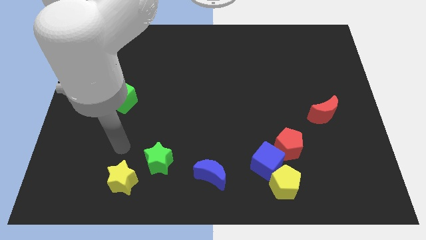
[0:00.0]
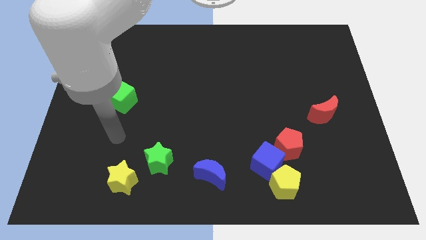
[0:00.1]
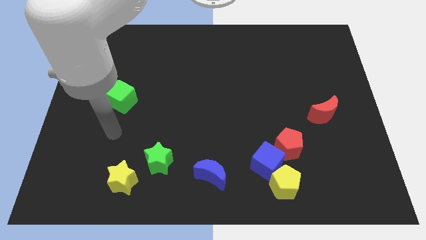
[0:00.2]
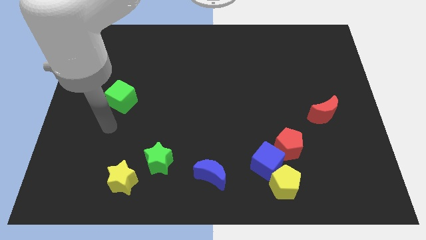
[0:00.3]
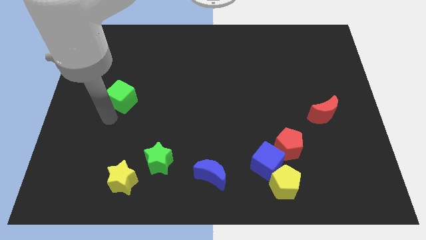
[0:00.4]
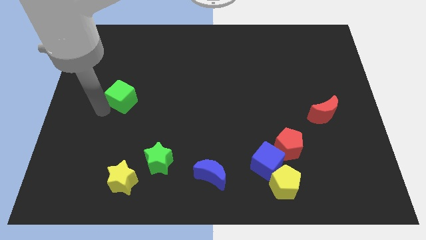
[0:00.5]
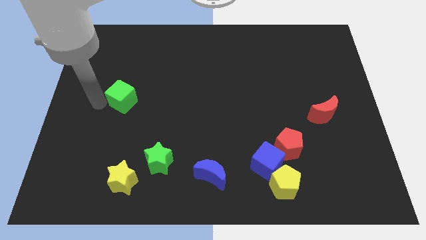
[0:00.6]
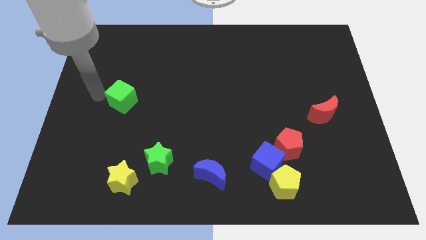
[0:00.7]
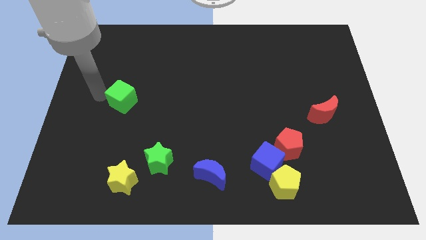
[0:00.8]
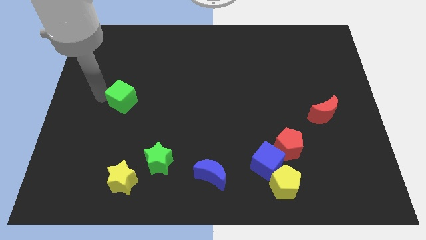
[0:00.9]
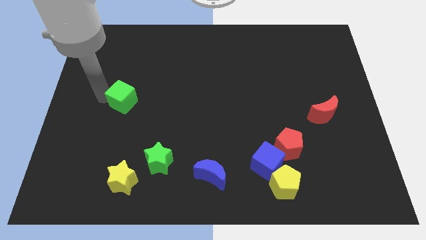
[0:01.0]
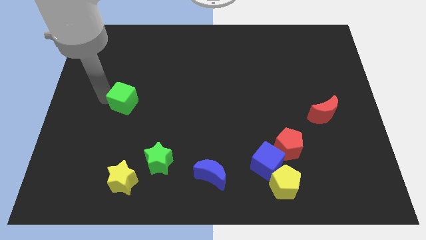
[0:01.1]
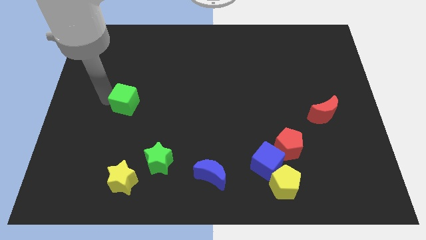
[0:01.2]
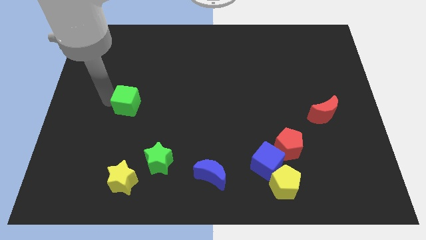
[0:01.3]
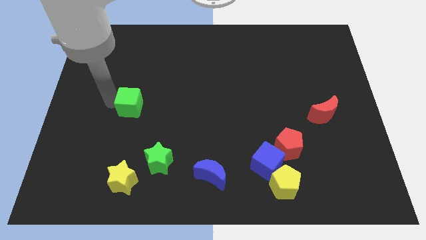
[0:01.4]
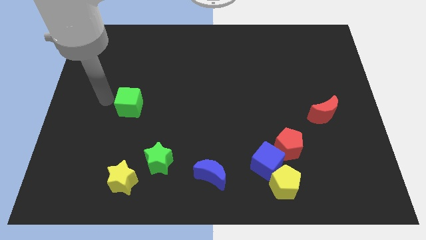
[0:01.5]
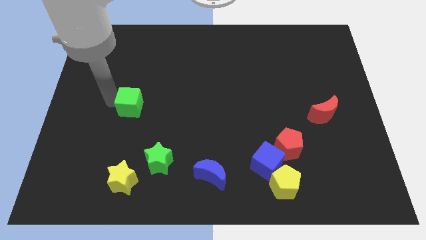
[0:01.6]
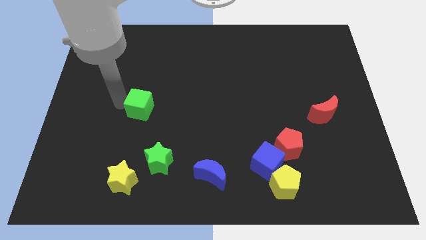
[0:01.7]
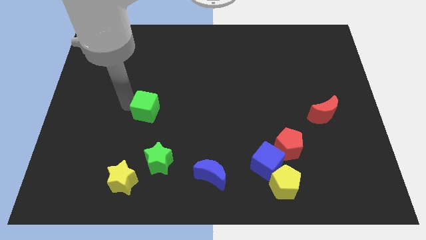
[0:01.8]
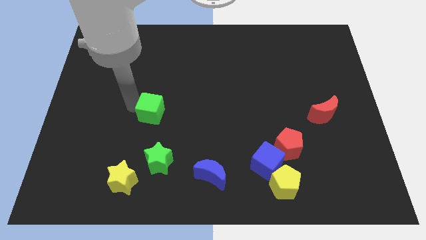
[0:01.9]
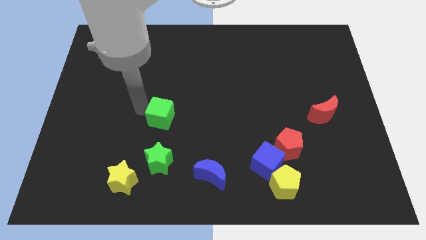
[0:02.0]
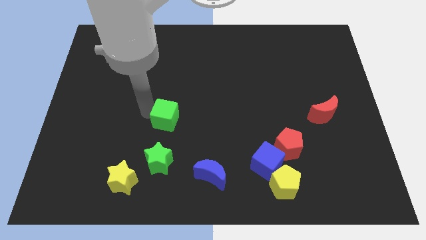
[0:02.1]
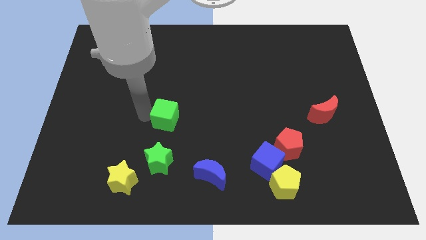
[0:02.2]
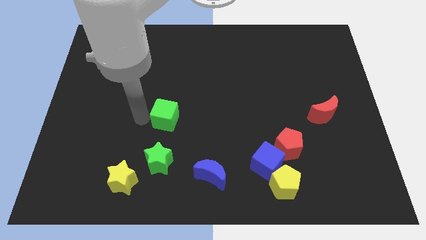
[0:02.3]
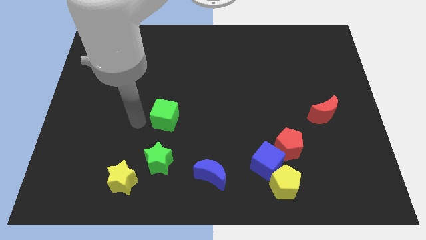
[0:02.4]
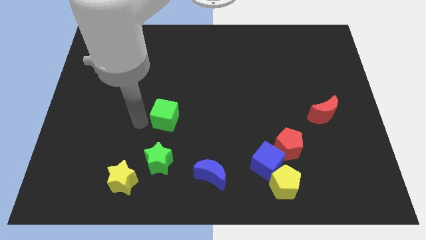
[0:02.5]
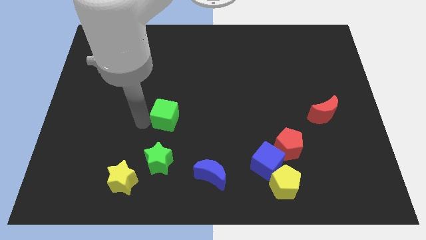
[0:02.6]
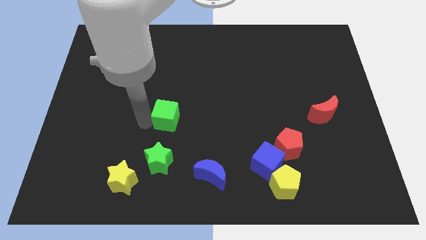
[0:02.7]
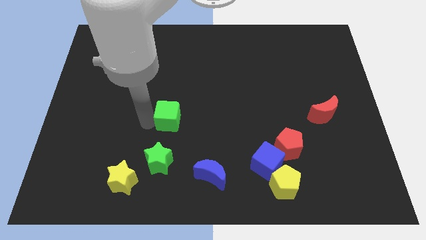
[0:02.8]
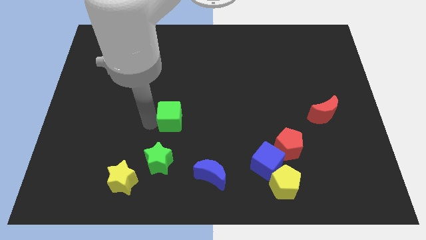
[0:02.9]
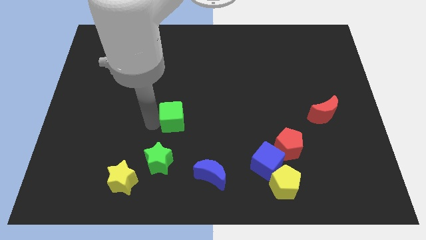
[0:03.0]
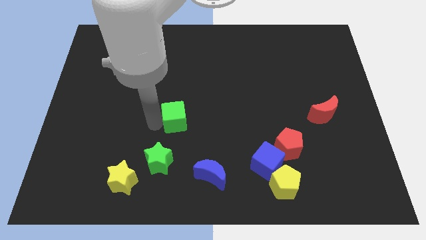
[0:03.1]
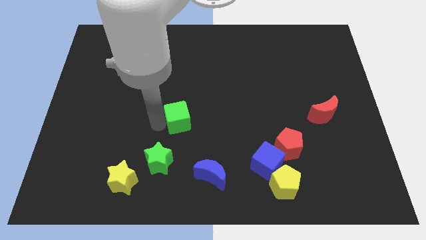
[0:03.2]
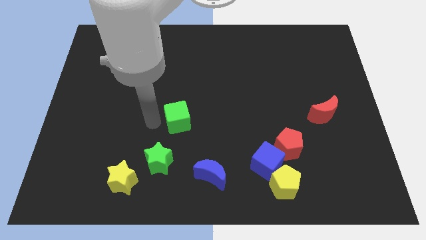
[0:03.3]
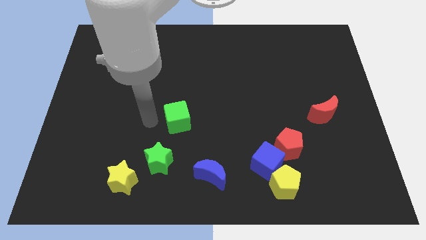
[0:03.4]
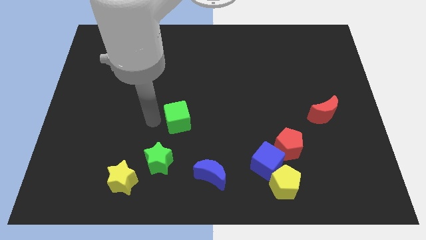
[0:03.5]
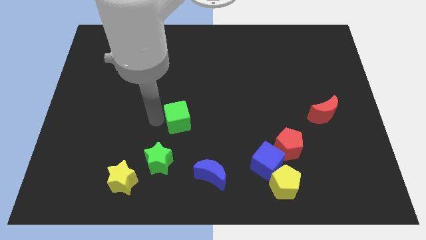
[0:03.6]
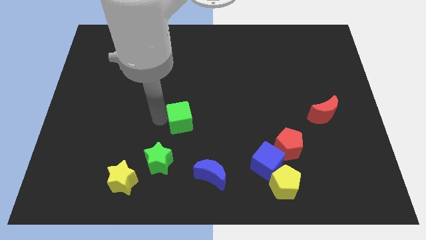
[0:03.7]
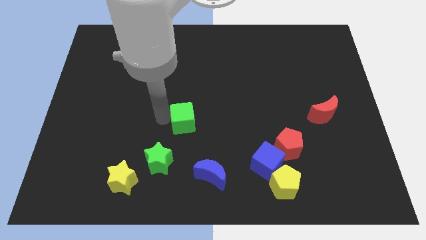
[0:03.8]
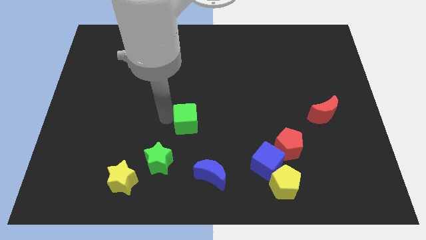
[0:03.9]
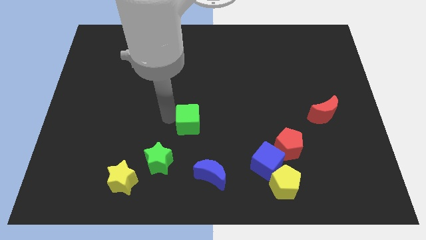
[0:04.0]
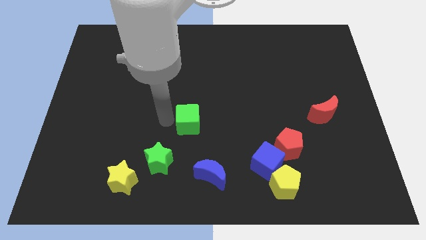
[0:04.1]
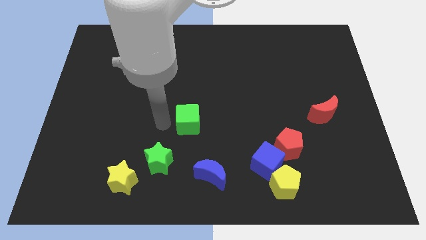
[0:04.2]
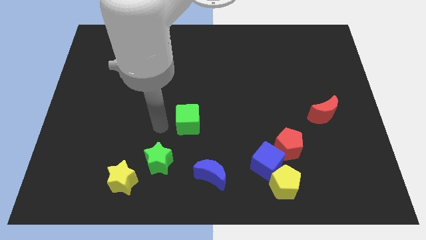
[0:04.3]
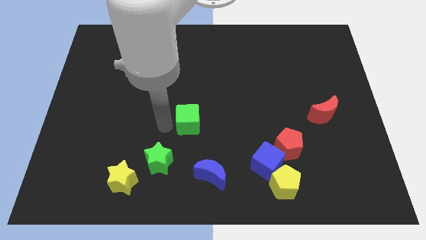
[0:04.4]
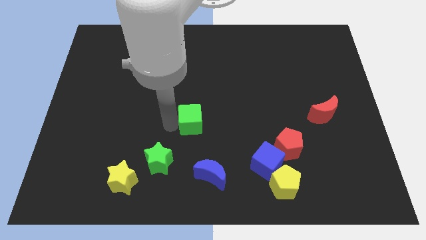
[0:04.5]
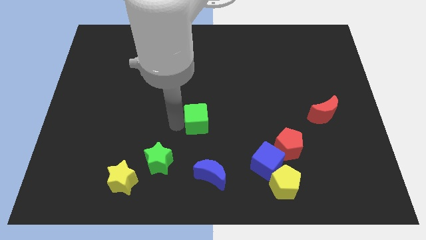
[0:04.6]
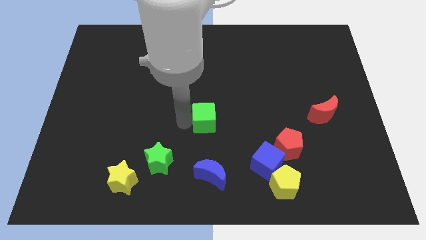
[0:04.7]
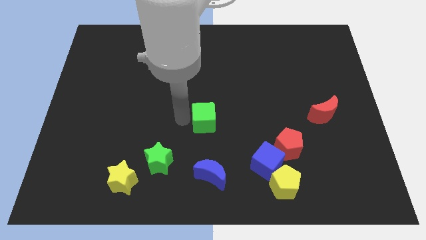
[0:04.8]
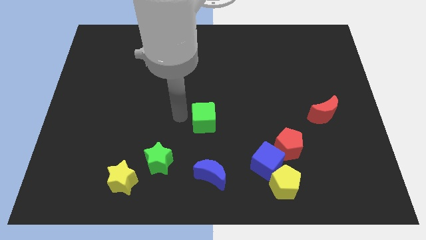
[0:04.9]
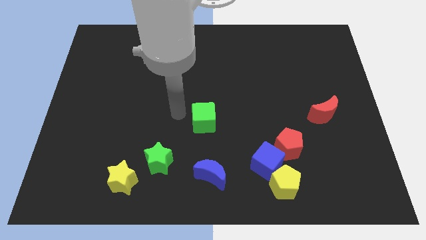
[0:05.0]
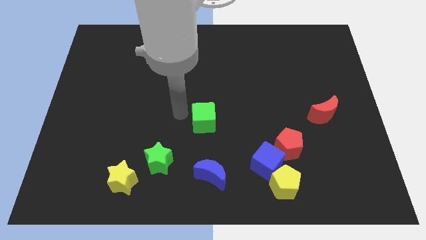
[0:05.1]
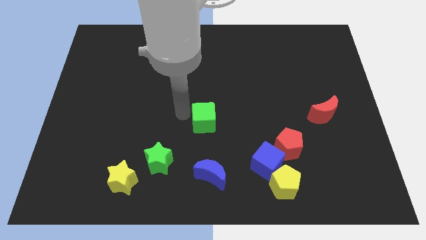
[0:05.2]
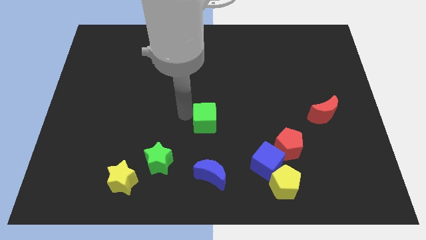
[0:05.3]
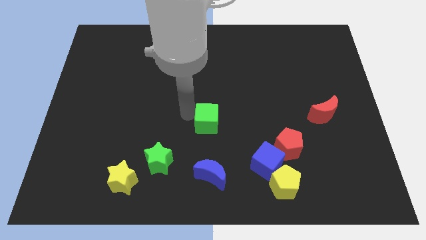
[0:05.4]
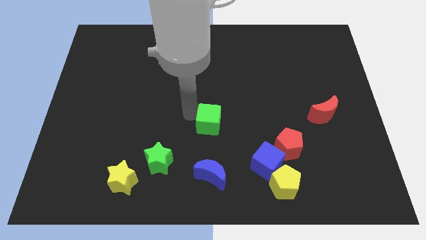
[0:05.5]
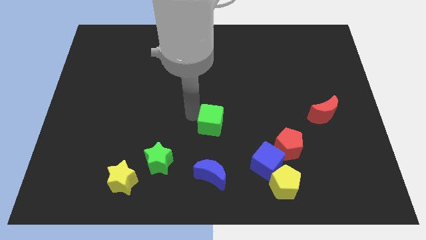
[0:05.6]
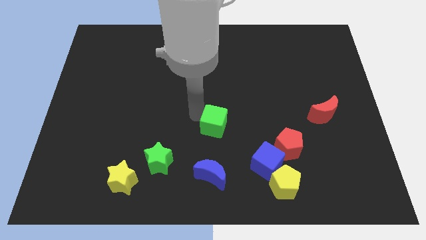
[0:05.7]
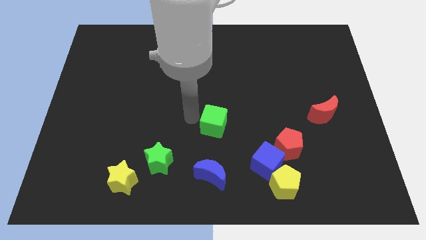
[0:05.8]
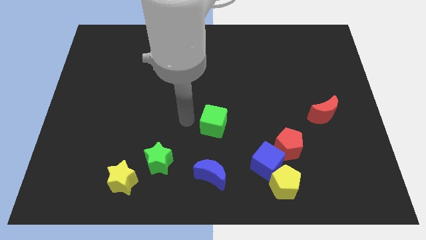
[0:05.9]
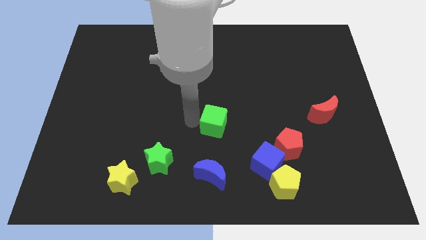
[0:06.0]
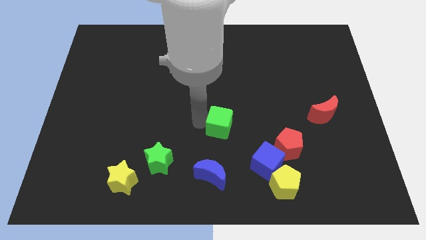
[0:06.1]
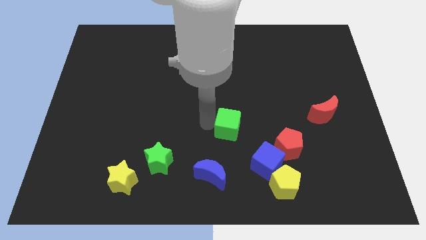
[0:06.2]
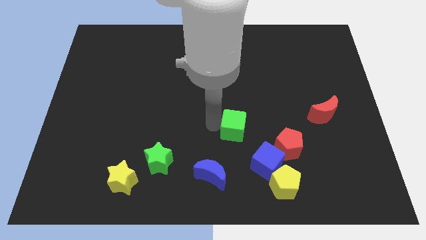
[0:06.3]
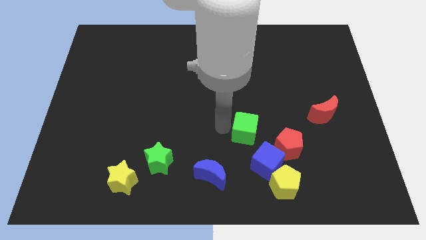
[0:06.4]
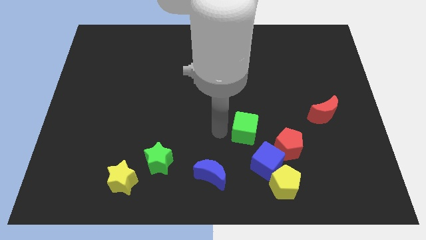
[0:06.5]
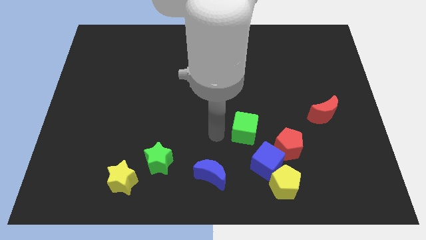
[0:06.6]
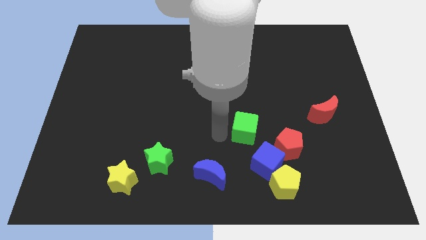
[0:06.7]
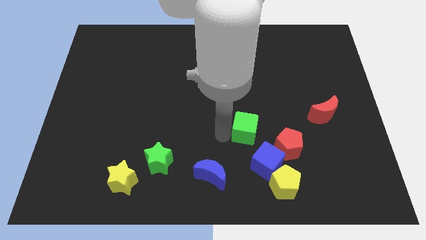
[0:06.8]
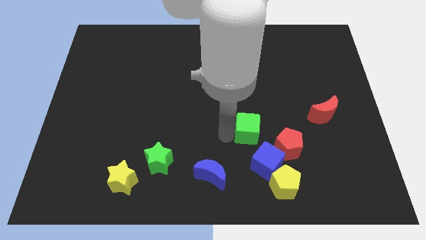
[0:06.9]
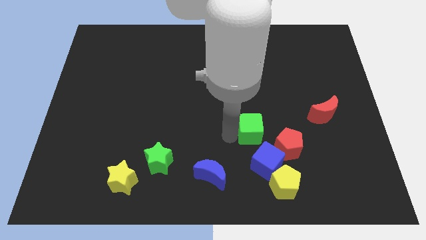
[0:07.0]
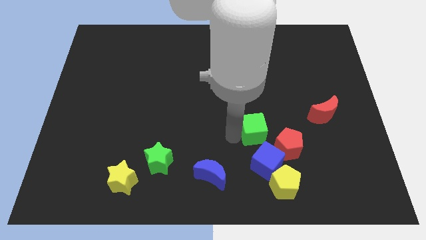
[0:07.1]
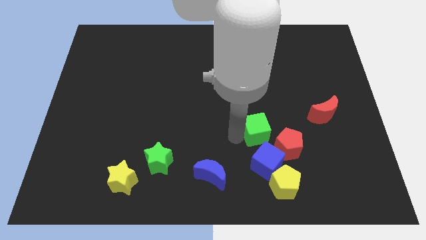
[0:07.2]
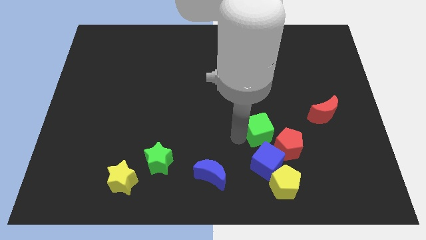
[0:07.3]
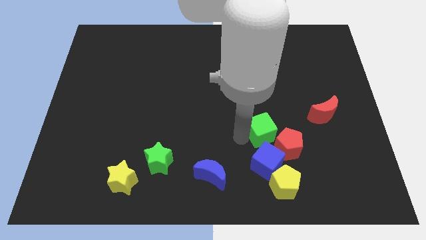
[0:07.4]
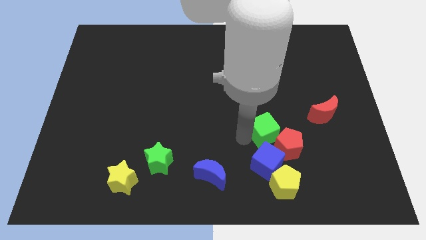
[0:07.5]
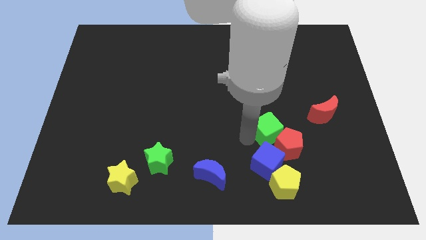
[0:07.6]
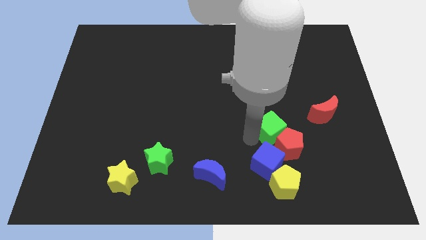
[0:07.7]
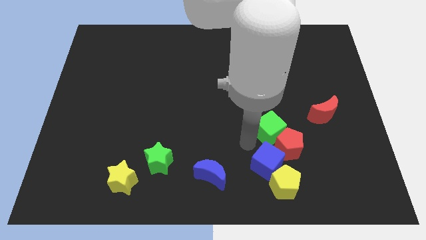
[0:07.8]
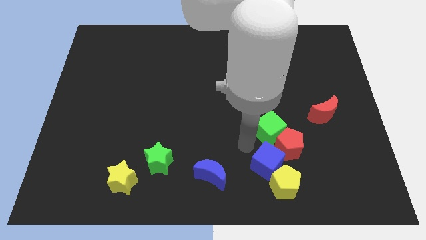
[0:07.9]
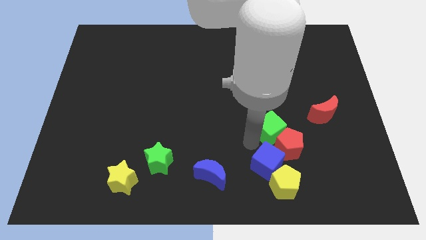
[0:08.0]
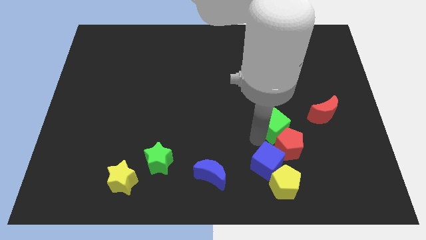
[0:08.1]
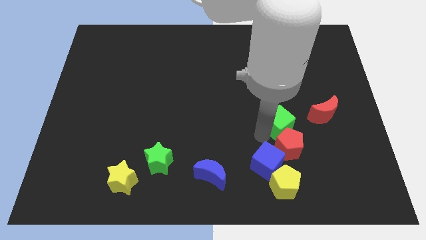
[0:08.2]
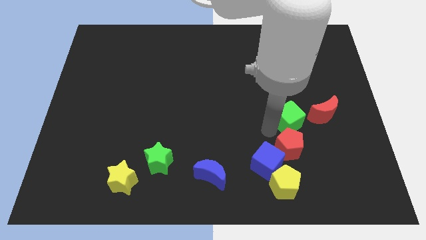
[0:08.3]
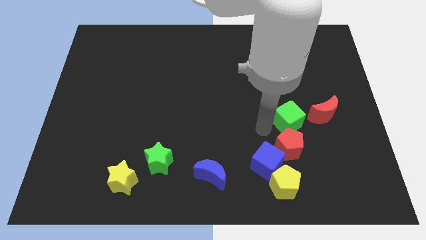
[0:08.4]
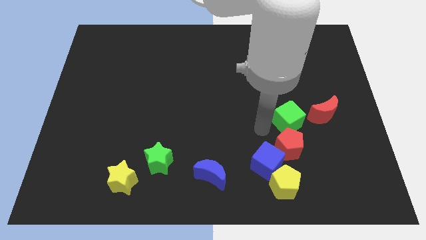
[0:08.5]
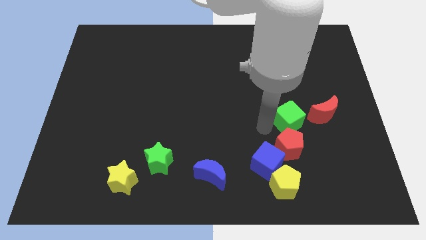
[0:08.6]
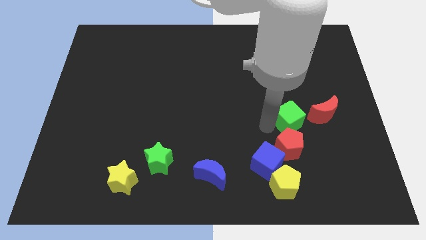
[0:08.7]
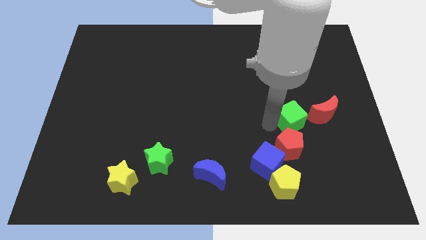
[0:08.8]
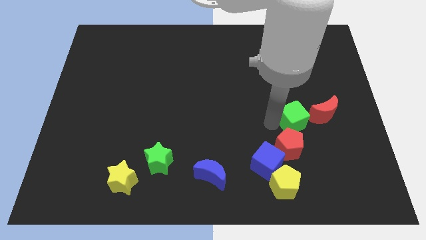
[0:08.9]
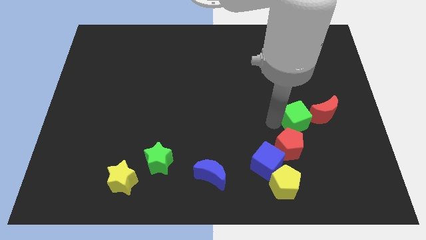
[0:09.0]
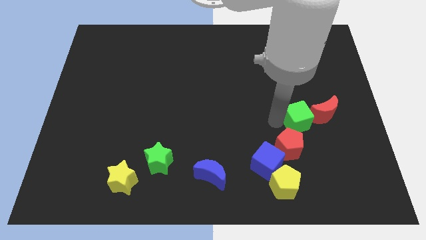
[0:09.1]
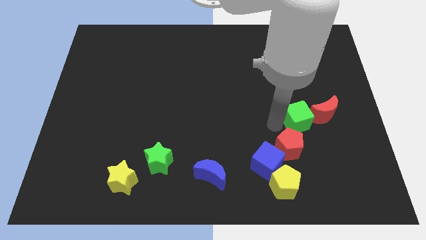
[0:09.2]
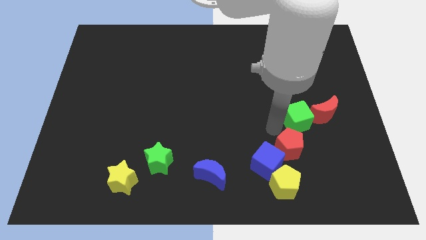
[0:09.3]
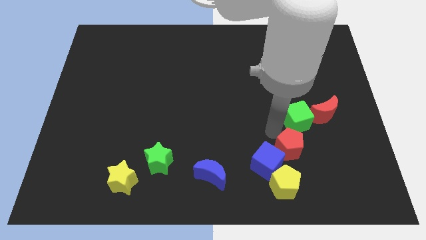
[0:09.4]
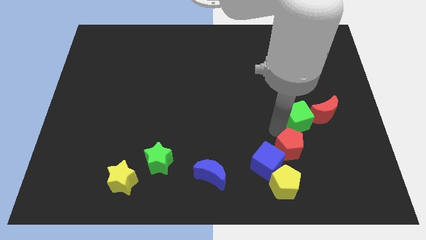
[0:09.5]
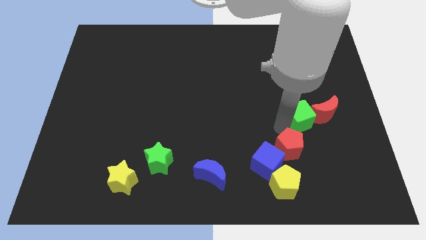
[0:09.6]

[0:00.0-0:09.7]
put the green cube close to the red moon
